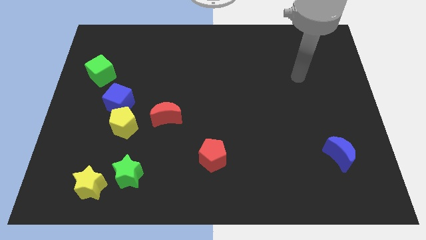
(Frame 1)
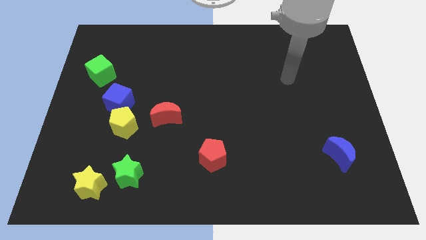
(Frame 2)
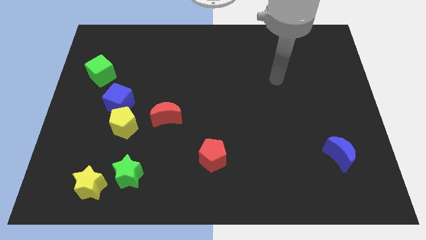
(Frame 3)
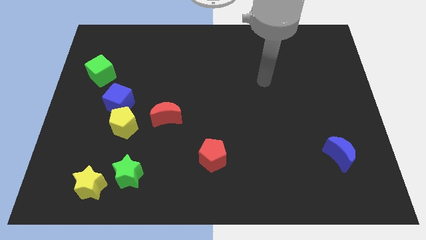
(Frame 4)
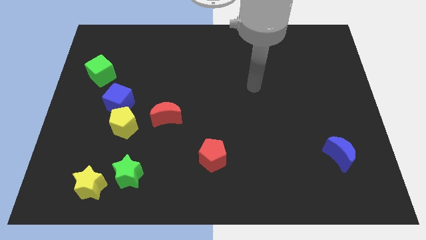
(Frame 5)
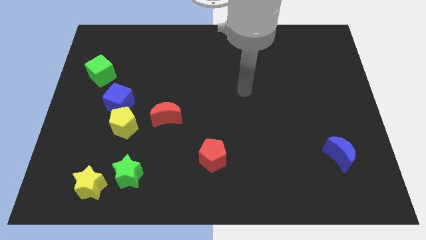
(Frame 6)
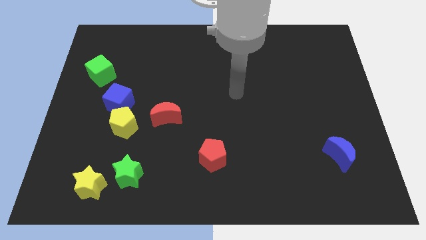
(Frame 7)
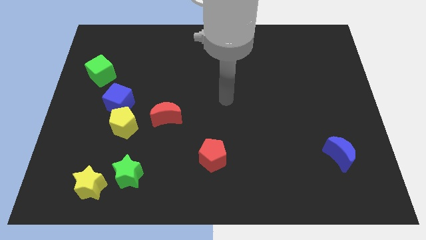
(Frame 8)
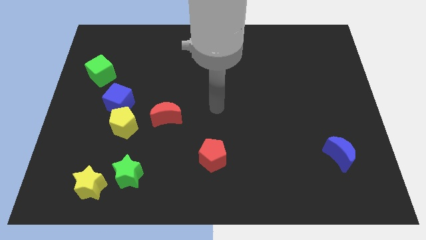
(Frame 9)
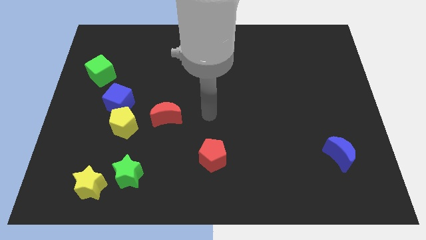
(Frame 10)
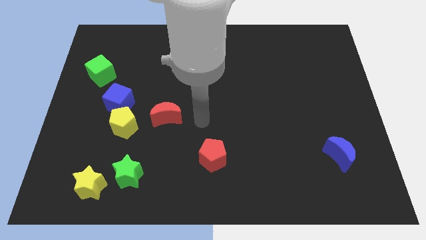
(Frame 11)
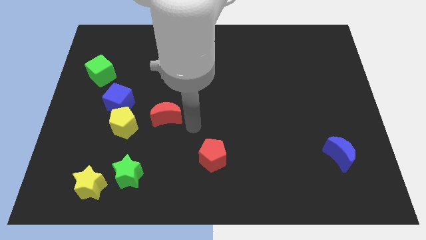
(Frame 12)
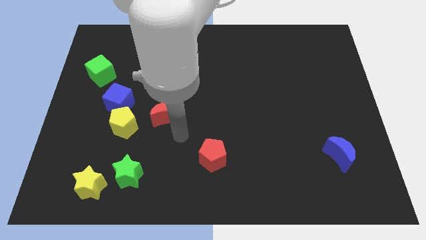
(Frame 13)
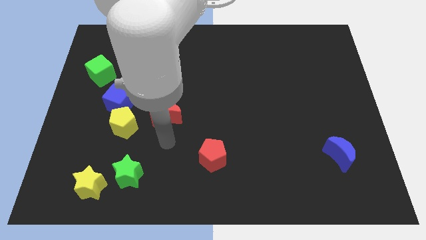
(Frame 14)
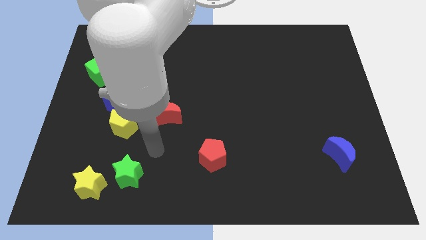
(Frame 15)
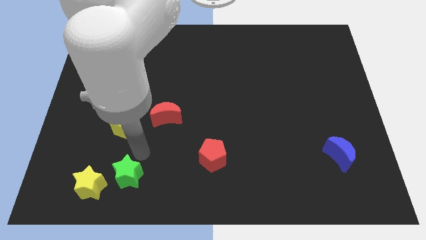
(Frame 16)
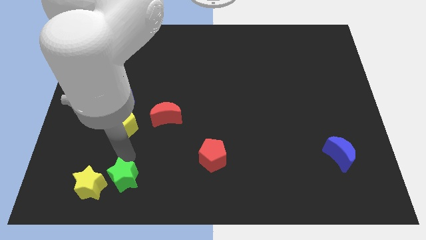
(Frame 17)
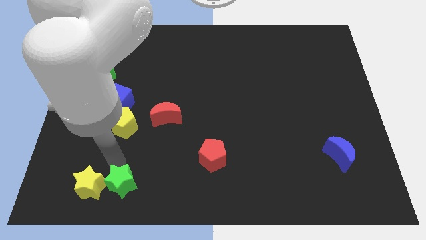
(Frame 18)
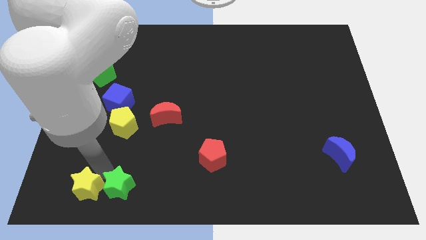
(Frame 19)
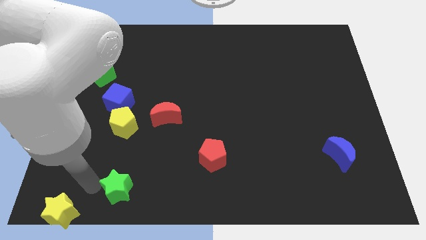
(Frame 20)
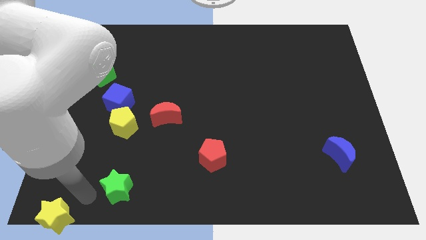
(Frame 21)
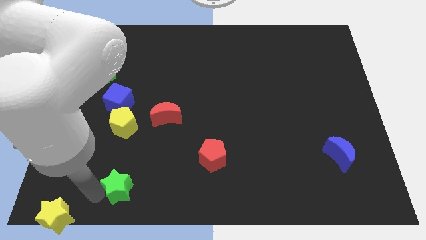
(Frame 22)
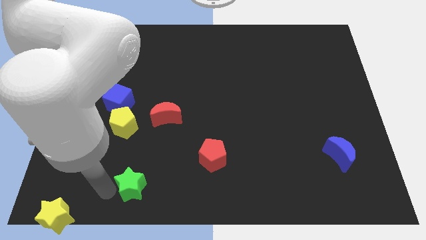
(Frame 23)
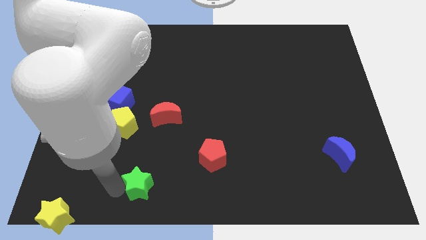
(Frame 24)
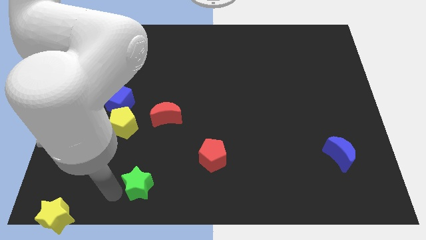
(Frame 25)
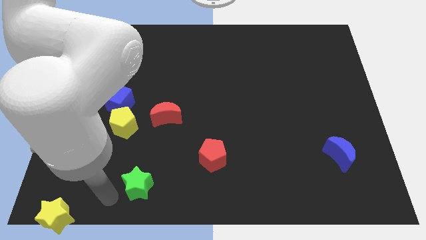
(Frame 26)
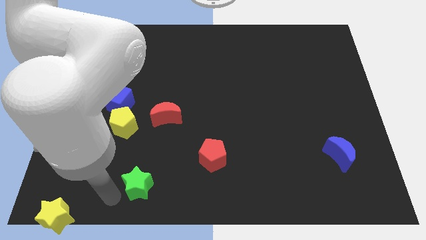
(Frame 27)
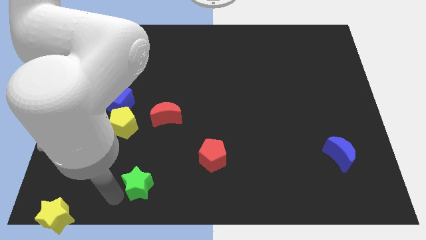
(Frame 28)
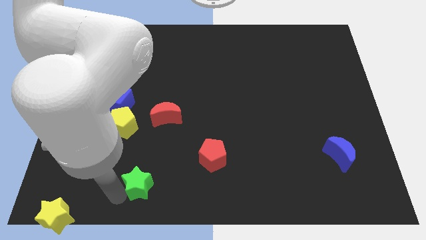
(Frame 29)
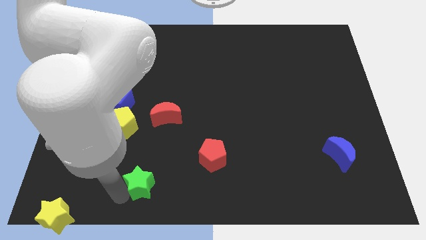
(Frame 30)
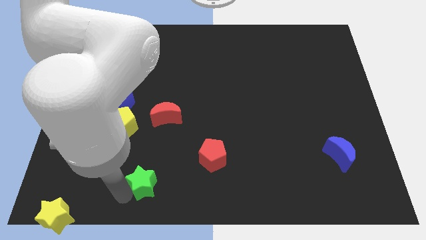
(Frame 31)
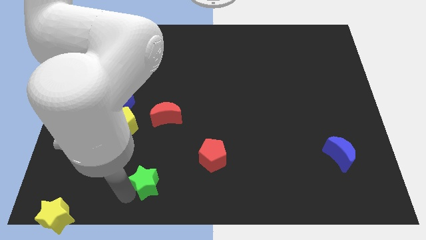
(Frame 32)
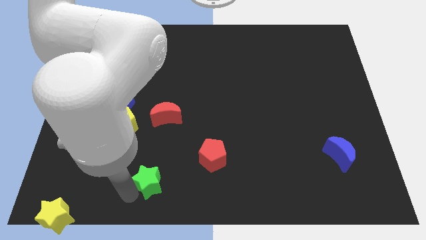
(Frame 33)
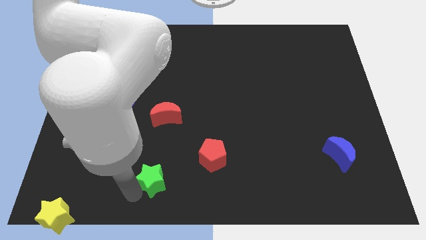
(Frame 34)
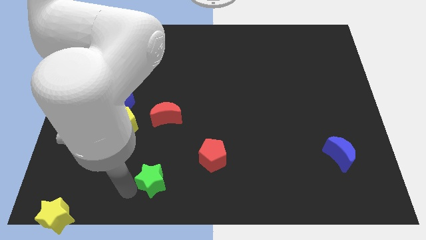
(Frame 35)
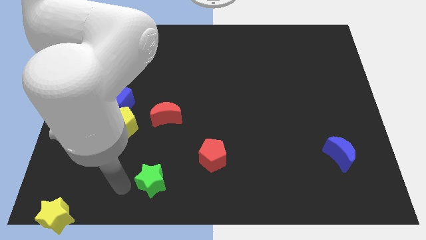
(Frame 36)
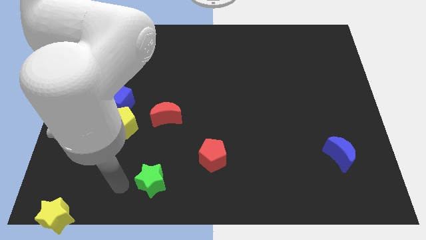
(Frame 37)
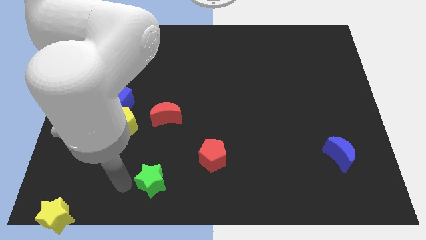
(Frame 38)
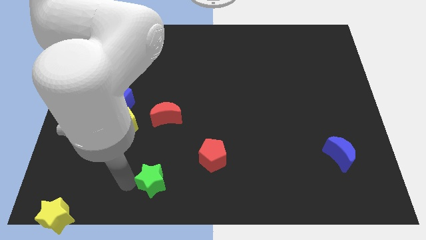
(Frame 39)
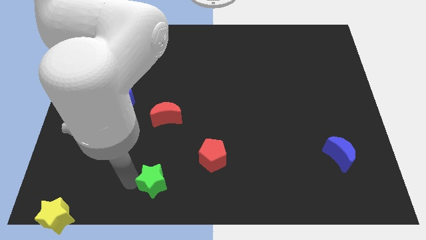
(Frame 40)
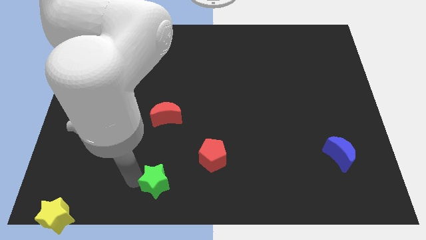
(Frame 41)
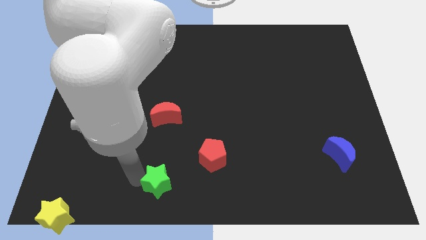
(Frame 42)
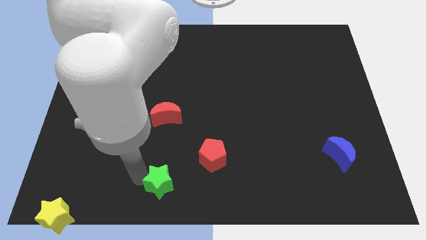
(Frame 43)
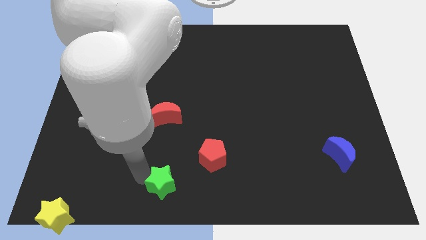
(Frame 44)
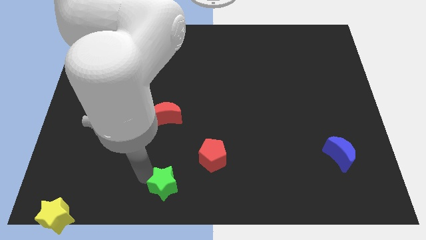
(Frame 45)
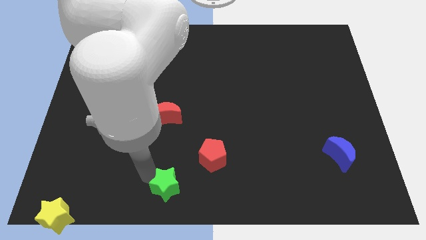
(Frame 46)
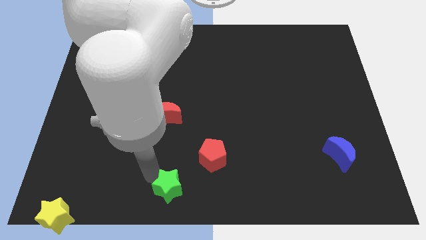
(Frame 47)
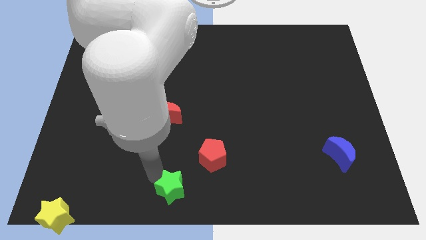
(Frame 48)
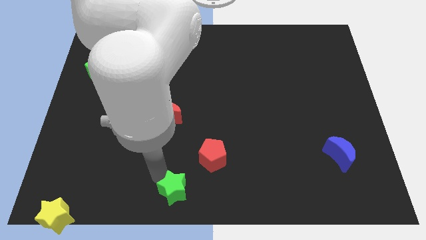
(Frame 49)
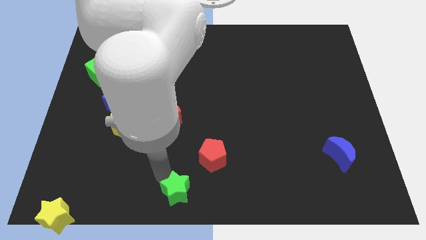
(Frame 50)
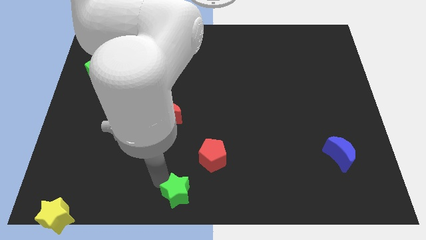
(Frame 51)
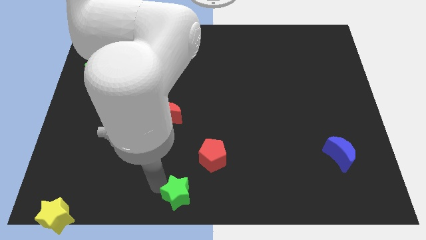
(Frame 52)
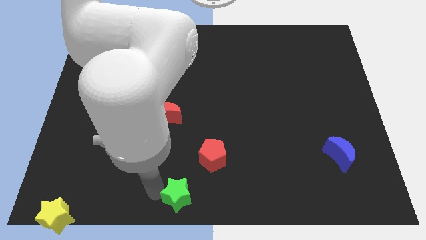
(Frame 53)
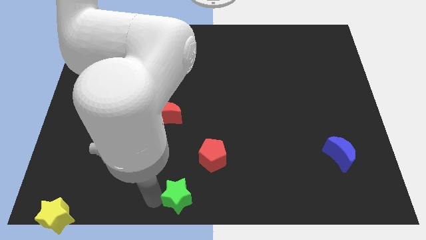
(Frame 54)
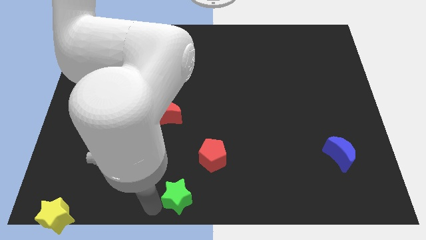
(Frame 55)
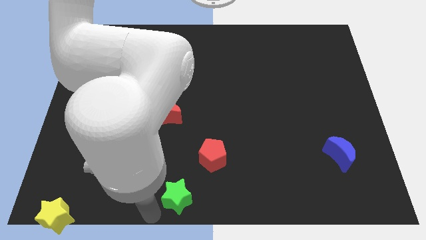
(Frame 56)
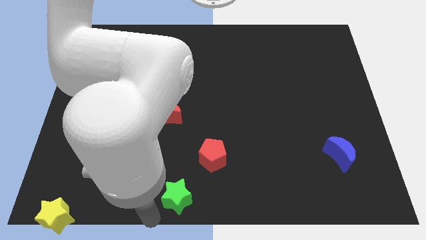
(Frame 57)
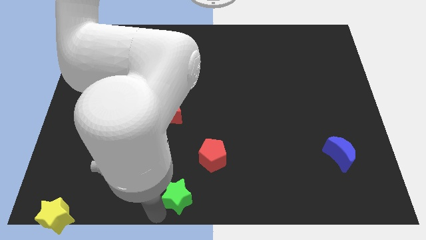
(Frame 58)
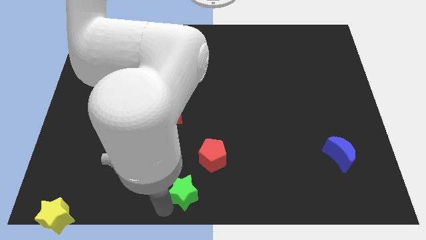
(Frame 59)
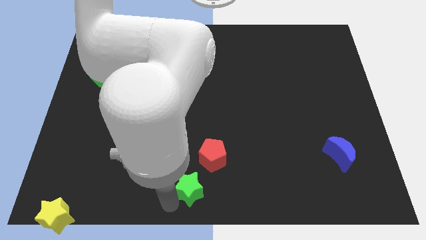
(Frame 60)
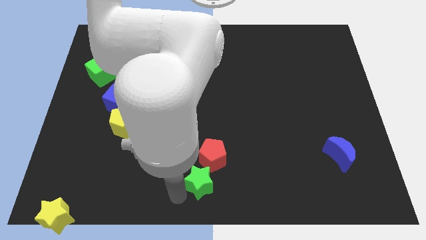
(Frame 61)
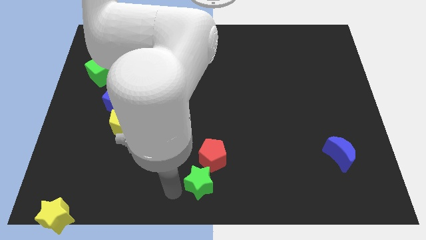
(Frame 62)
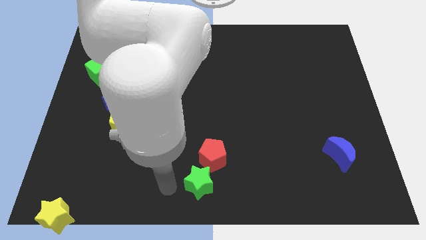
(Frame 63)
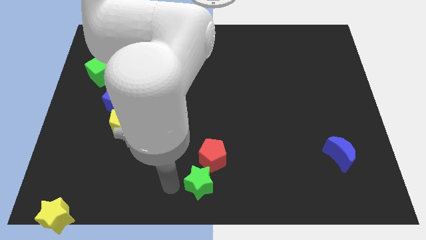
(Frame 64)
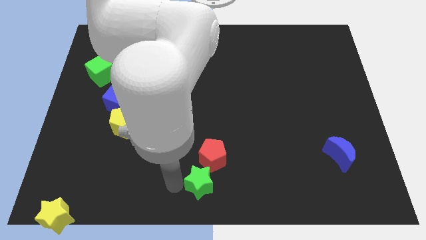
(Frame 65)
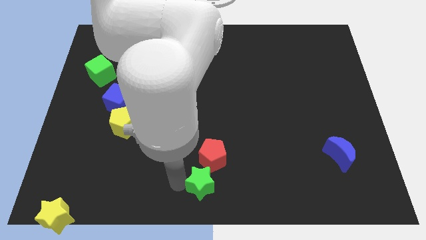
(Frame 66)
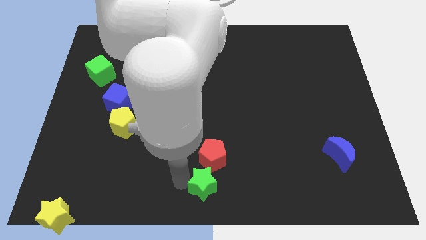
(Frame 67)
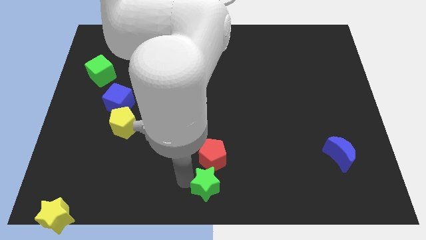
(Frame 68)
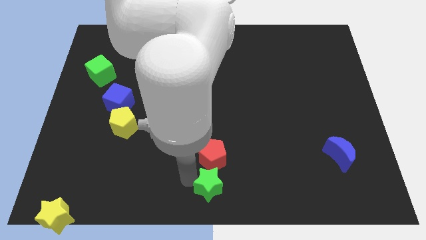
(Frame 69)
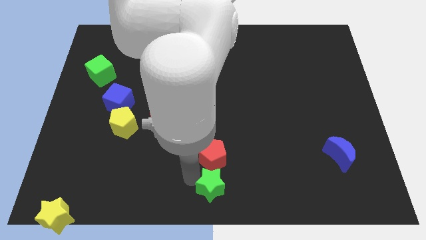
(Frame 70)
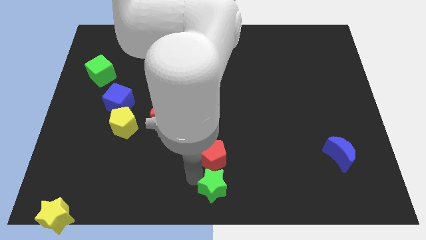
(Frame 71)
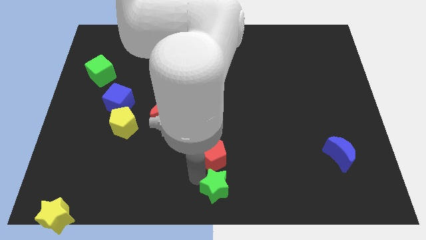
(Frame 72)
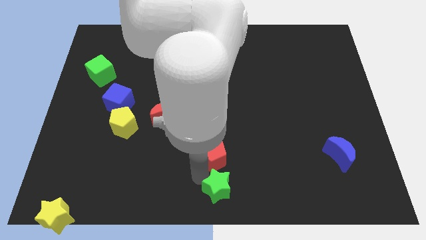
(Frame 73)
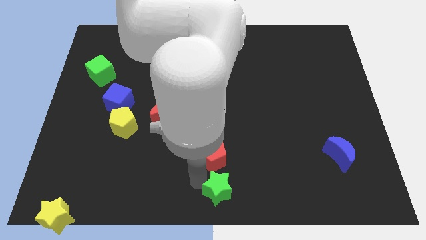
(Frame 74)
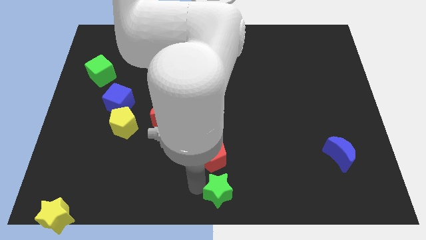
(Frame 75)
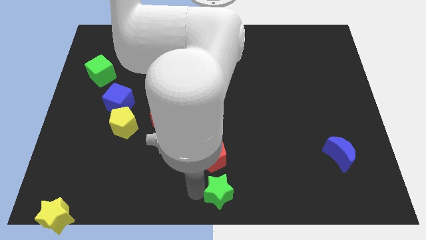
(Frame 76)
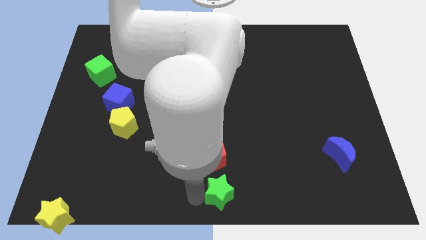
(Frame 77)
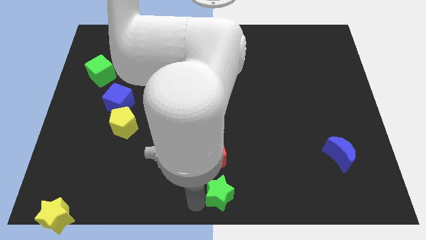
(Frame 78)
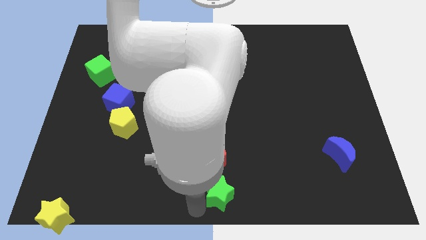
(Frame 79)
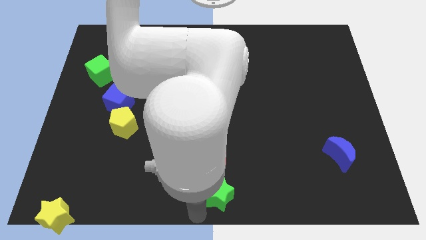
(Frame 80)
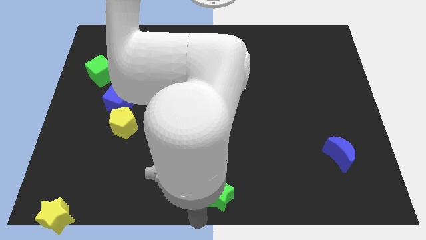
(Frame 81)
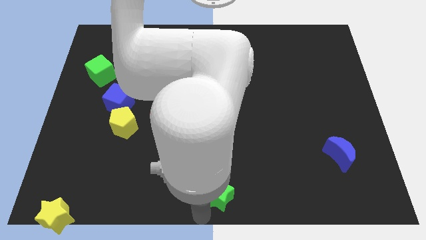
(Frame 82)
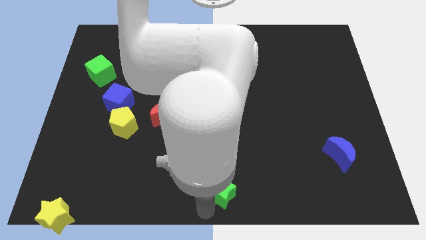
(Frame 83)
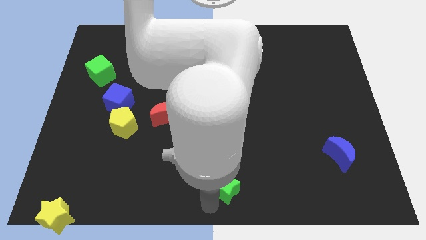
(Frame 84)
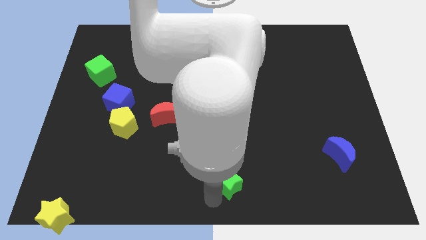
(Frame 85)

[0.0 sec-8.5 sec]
slide the green star right
